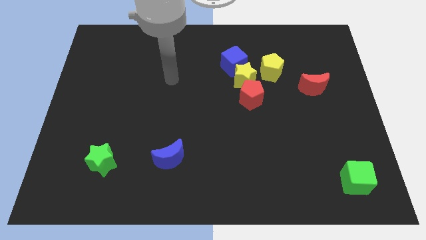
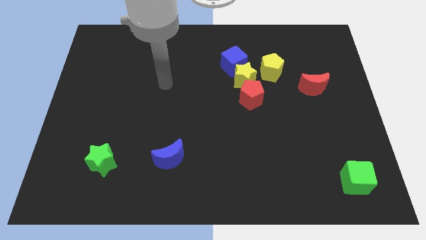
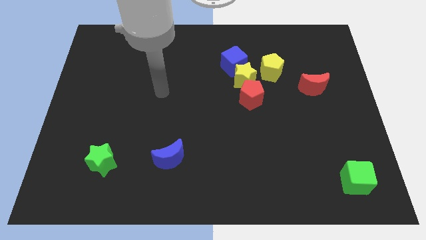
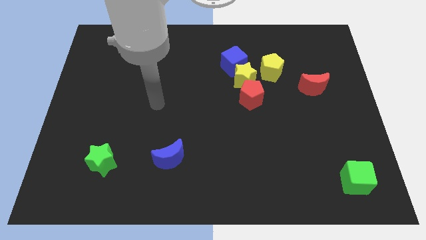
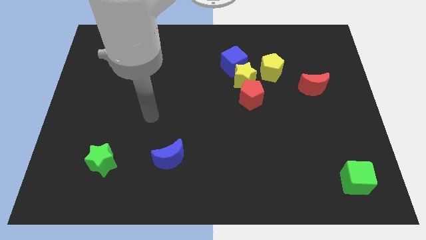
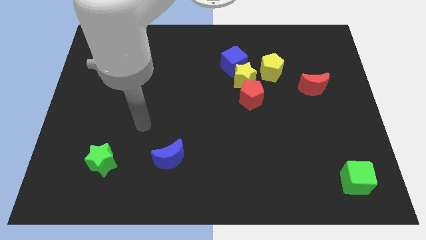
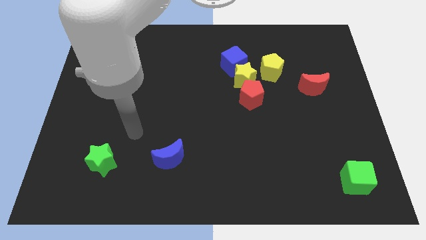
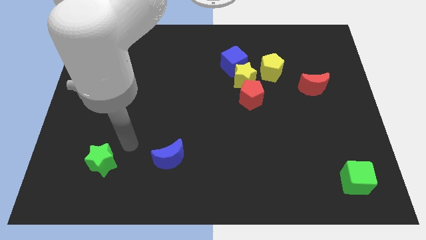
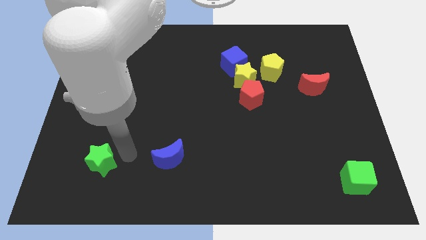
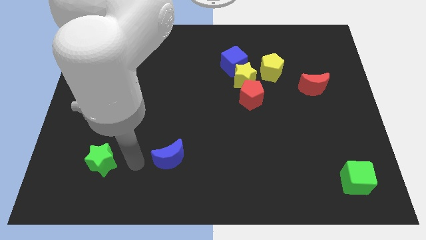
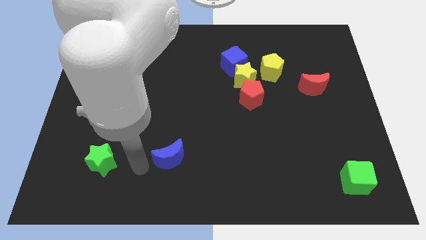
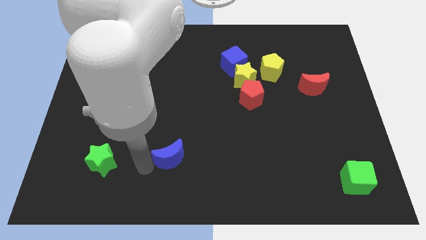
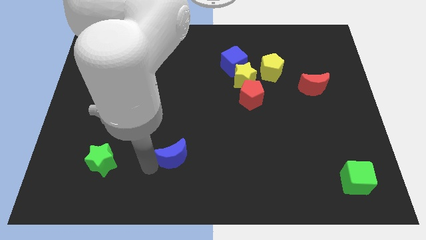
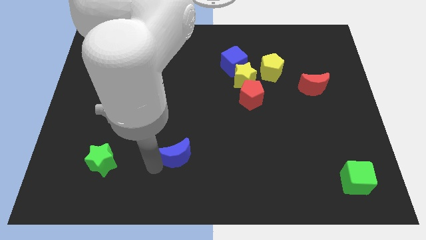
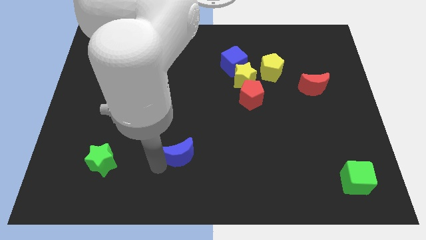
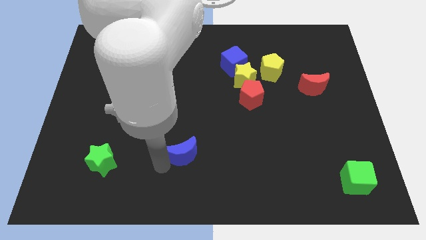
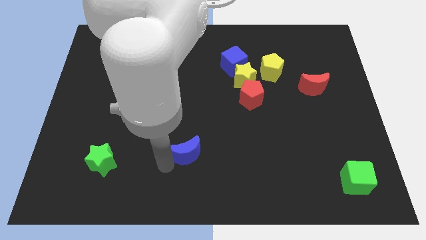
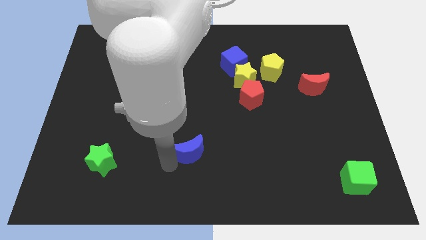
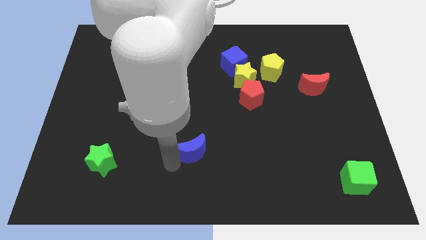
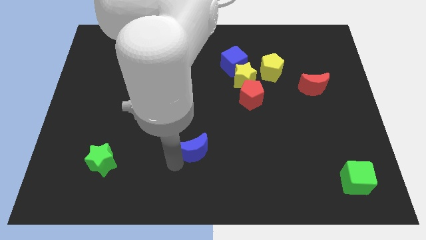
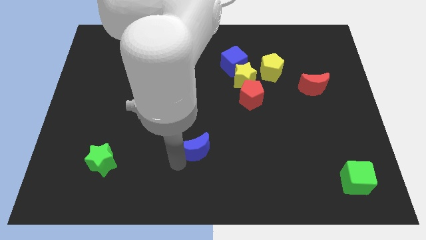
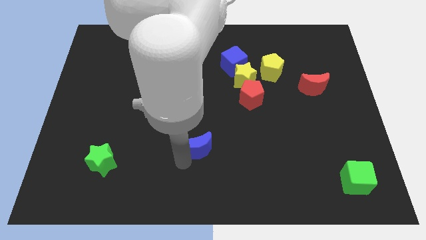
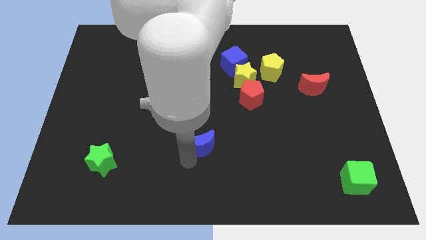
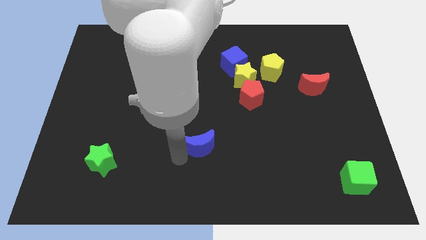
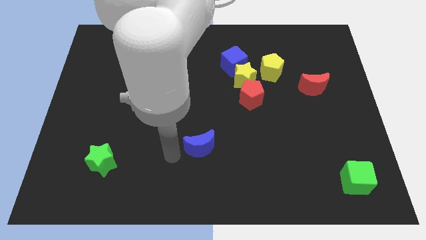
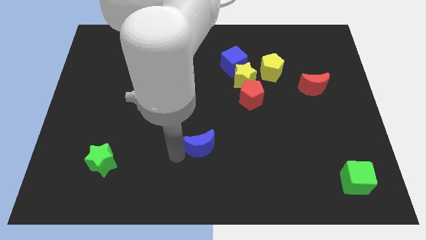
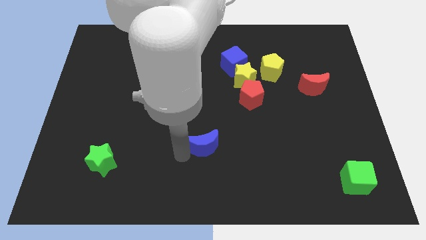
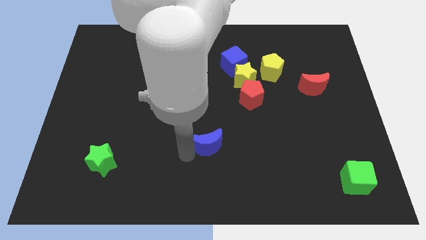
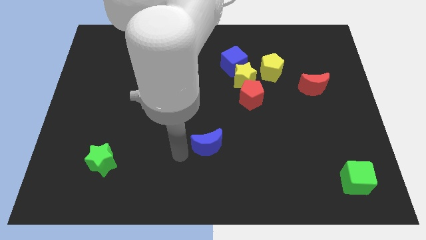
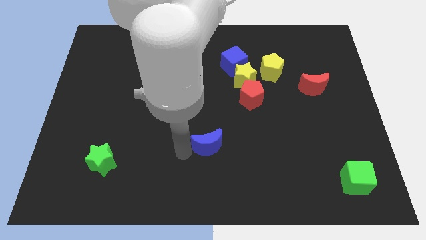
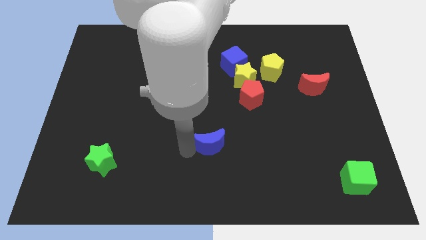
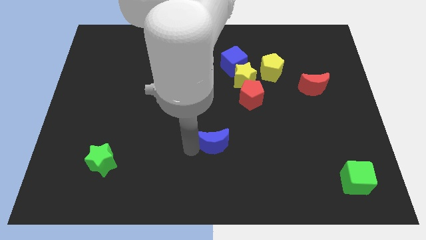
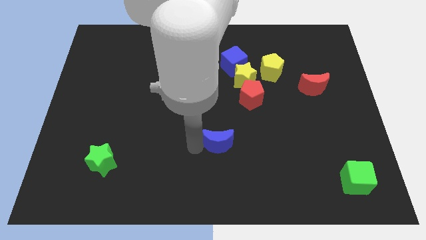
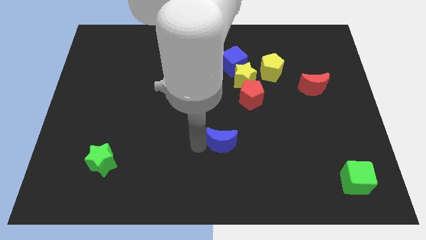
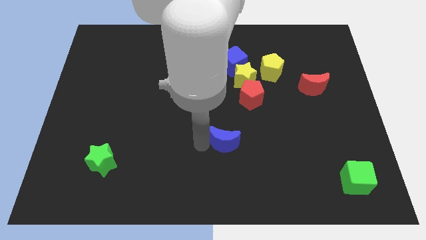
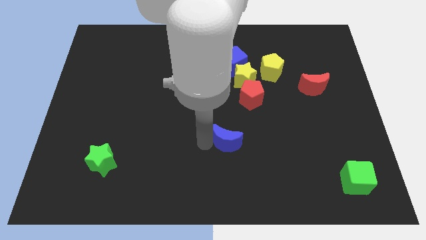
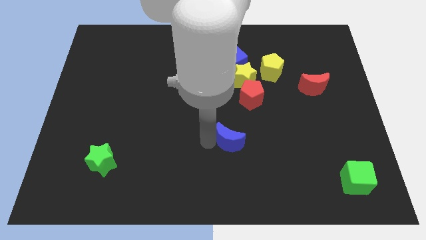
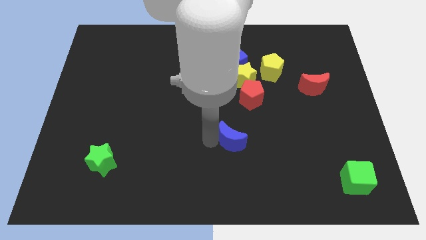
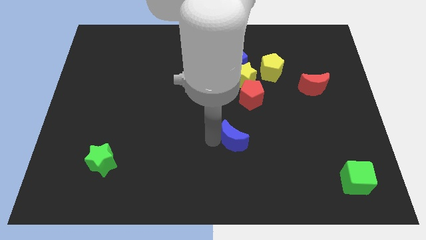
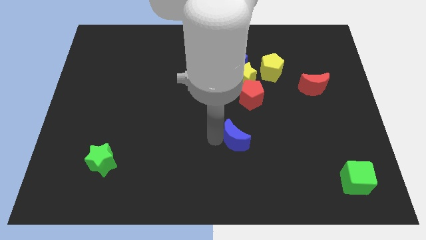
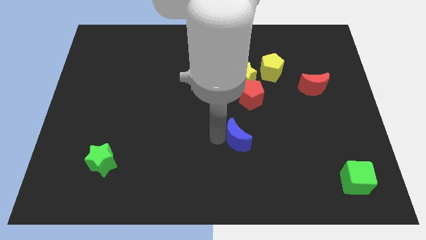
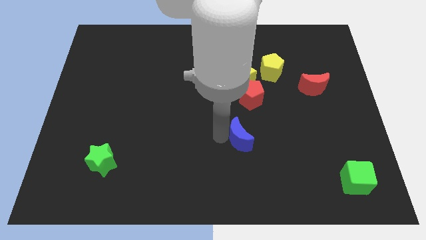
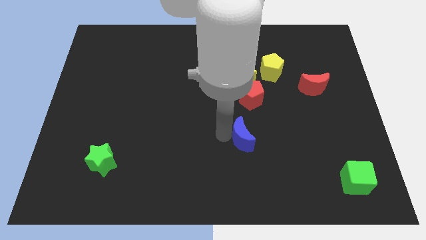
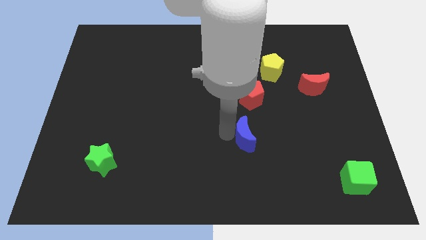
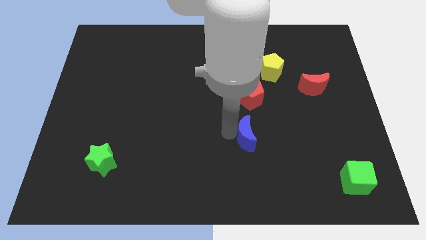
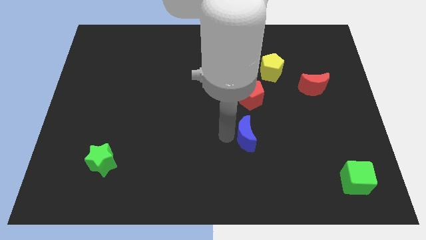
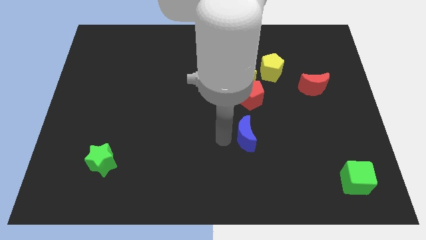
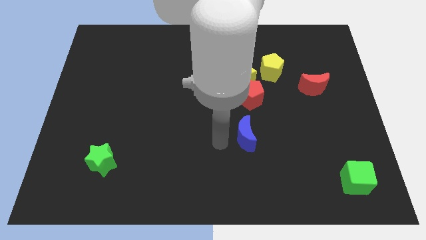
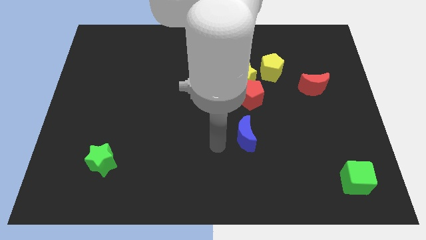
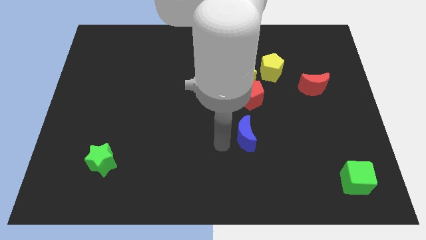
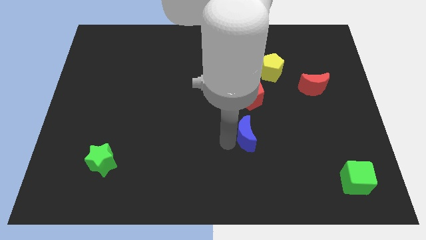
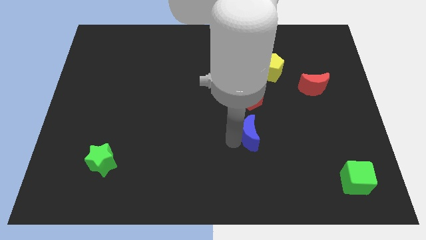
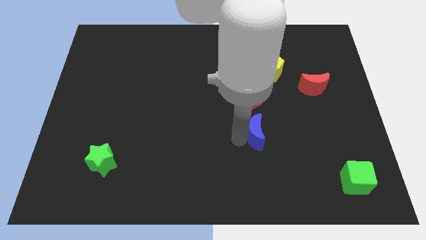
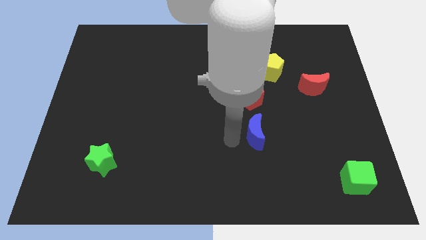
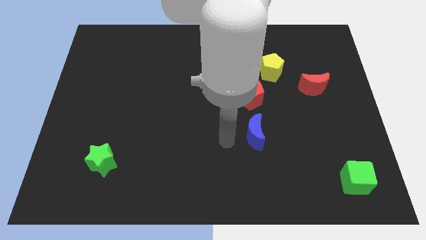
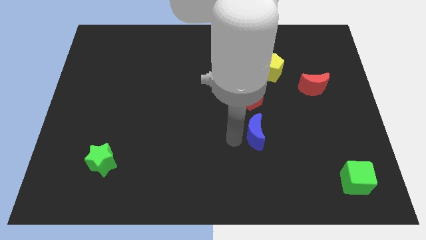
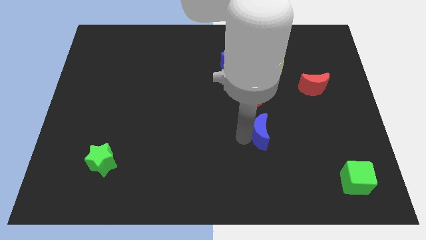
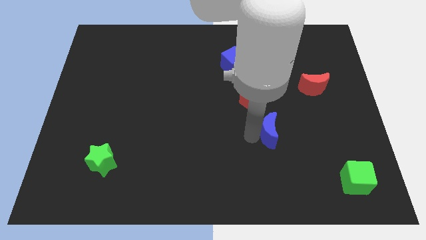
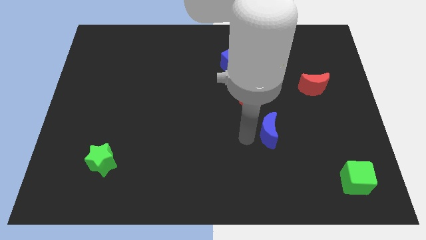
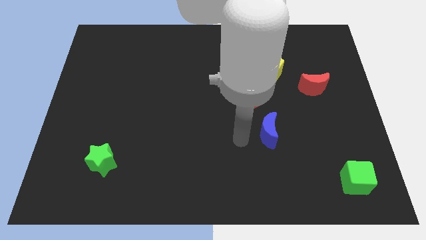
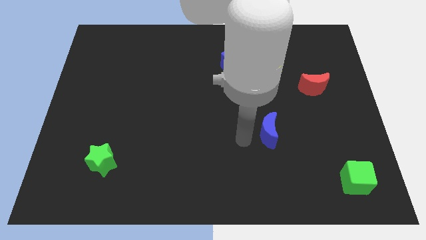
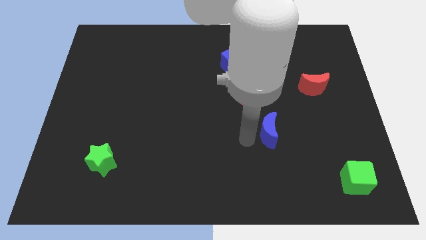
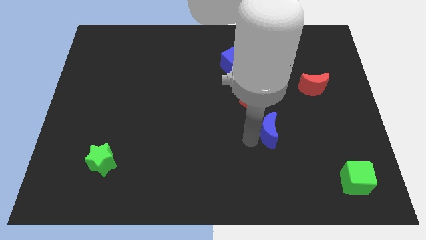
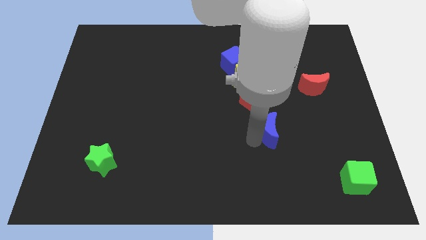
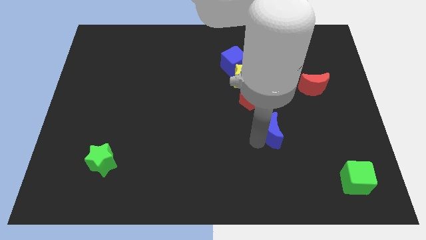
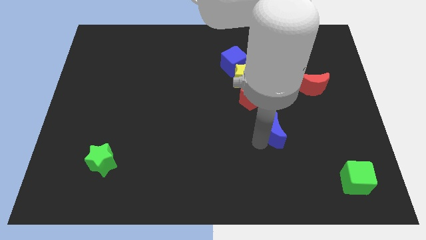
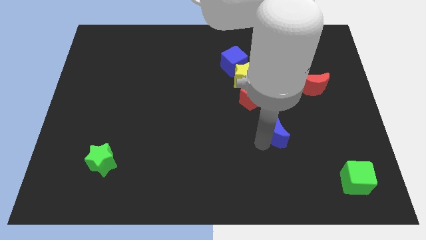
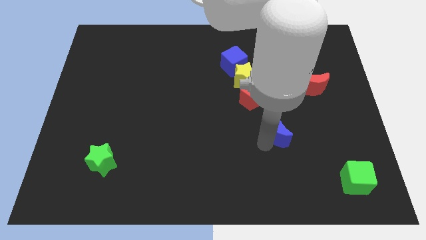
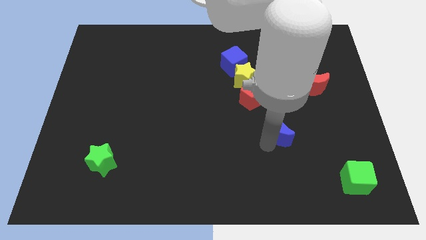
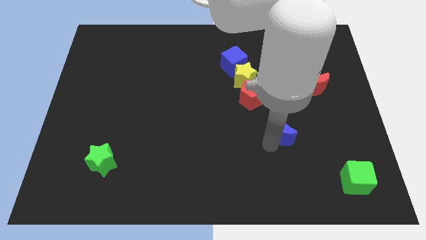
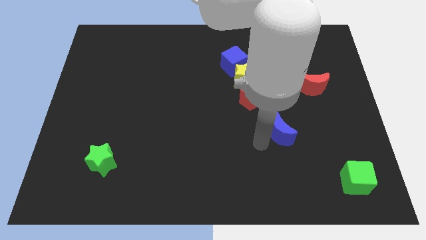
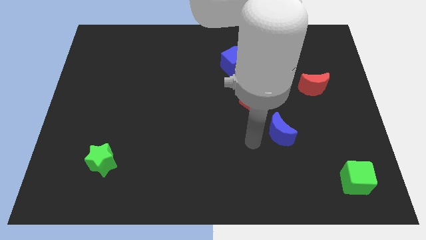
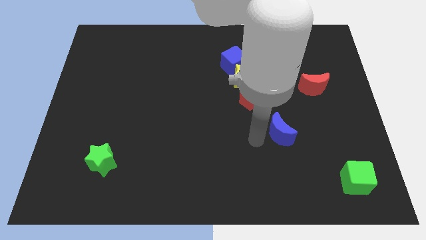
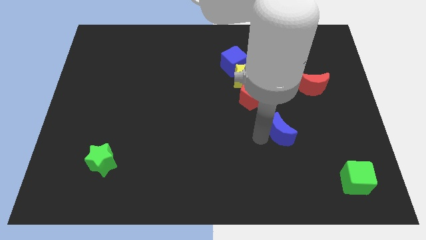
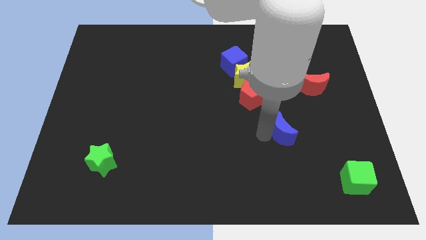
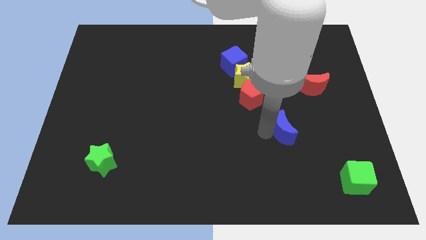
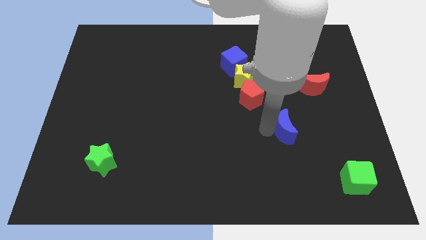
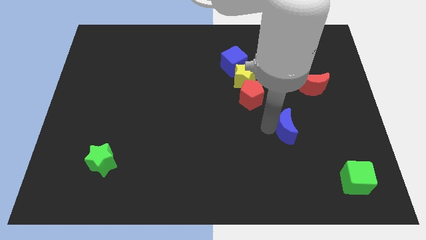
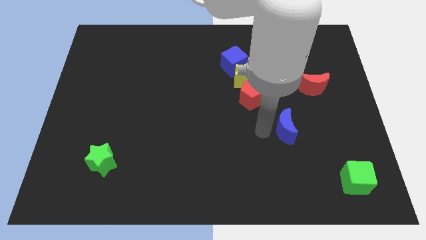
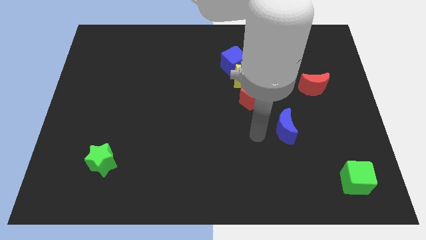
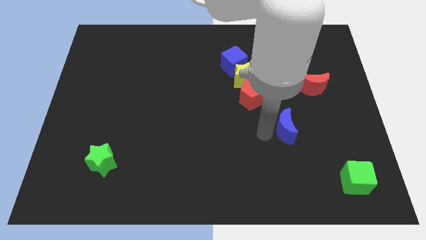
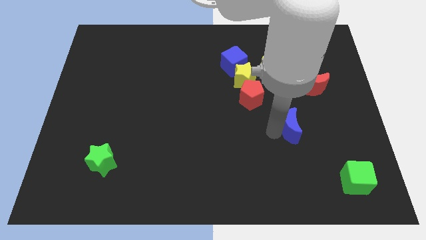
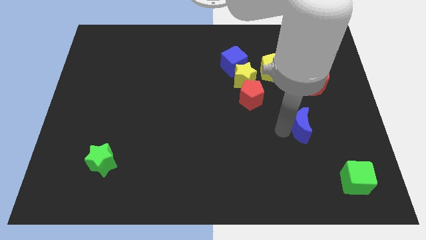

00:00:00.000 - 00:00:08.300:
put the blue moon below the red moon
